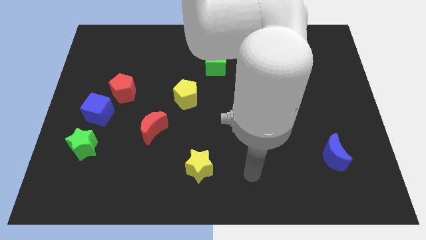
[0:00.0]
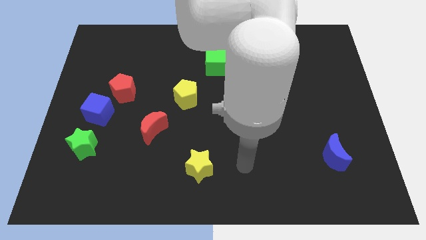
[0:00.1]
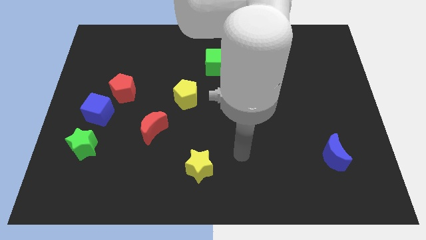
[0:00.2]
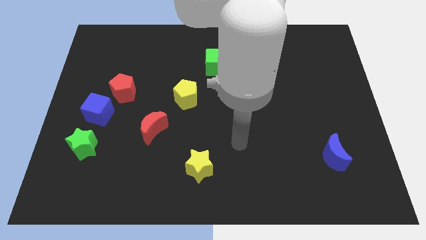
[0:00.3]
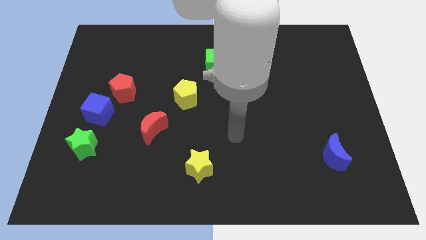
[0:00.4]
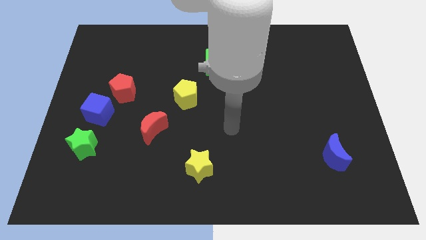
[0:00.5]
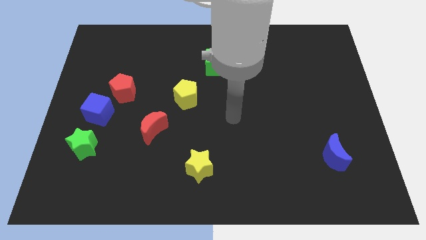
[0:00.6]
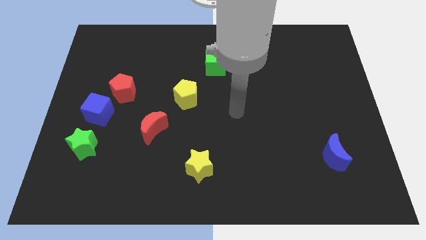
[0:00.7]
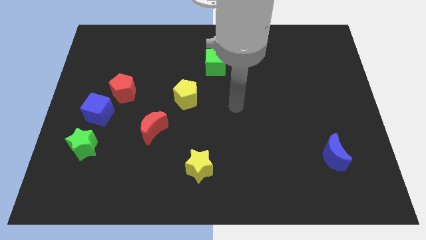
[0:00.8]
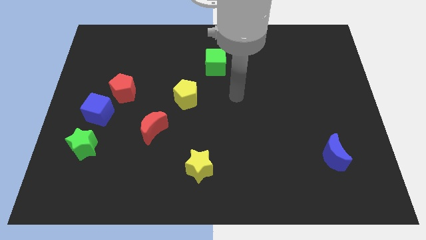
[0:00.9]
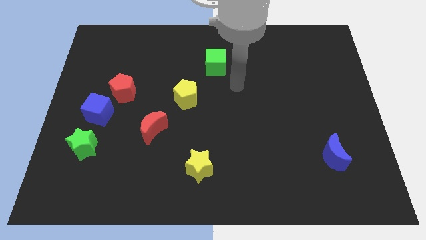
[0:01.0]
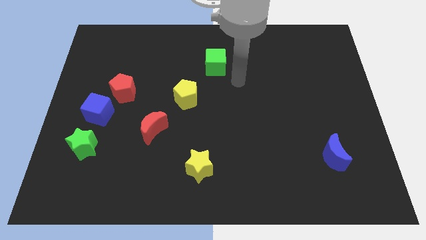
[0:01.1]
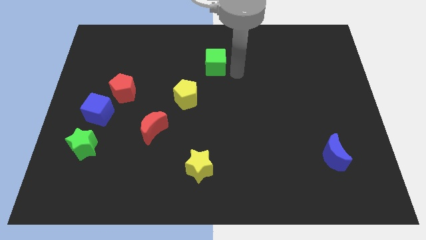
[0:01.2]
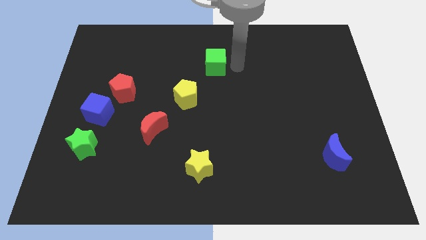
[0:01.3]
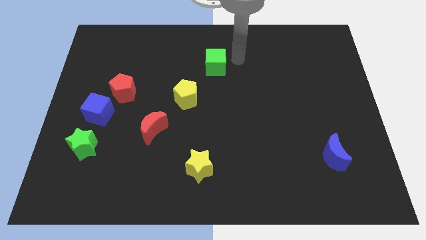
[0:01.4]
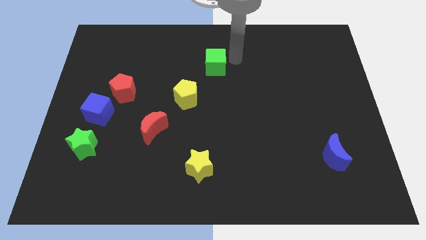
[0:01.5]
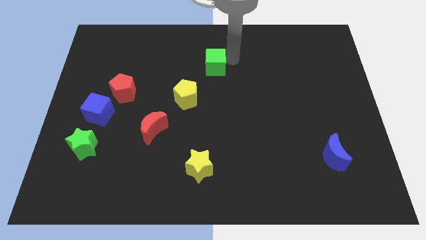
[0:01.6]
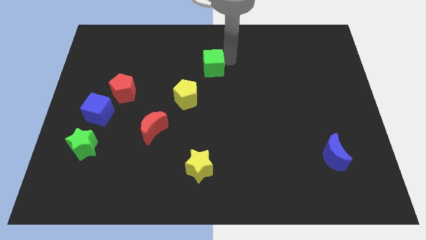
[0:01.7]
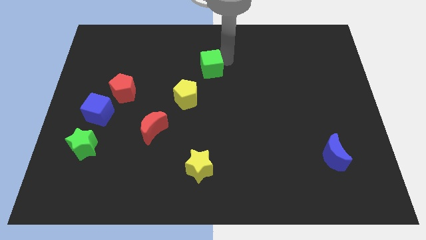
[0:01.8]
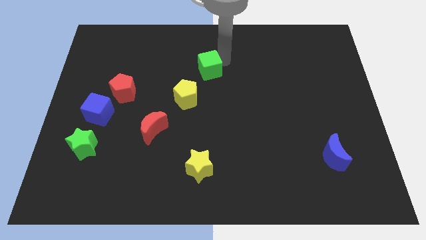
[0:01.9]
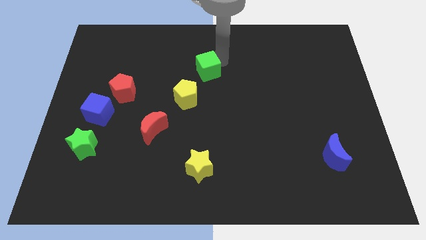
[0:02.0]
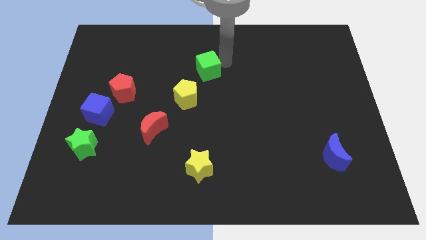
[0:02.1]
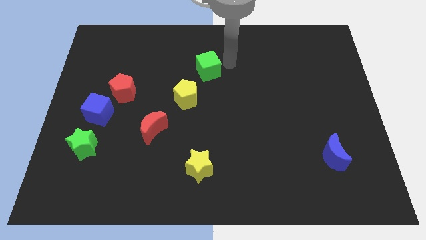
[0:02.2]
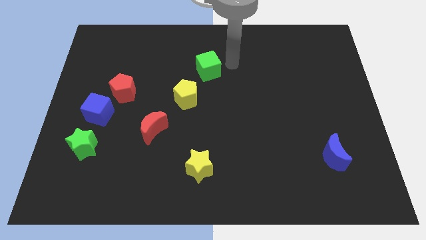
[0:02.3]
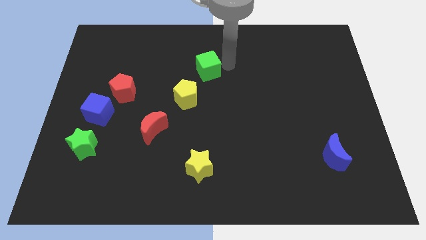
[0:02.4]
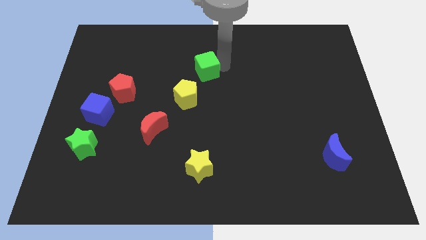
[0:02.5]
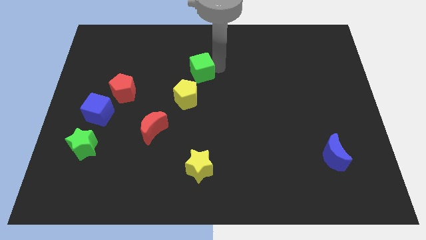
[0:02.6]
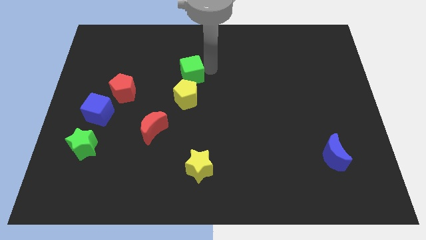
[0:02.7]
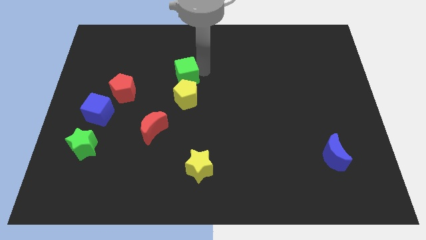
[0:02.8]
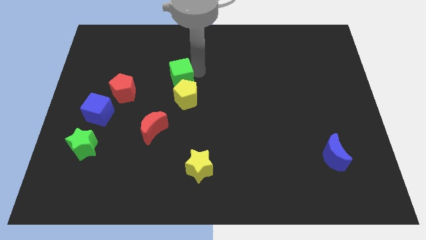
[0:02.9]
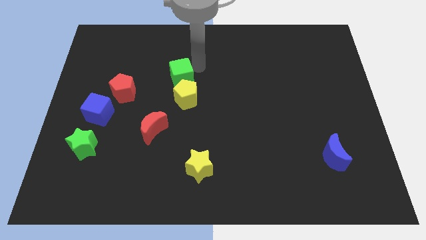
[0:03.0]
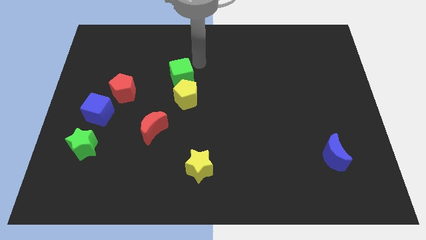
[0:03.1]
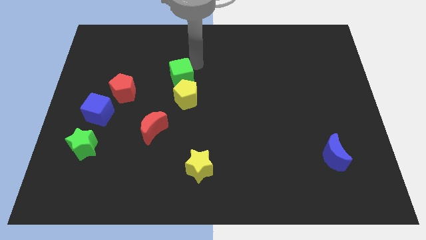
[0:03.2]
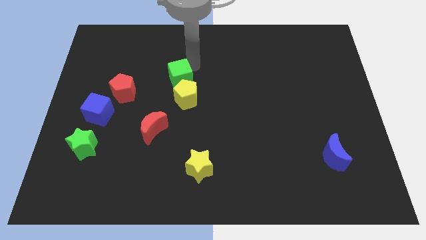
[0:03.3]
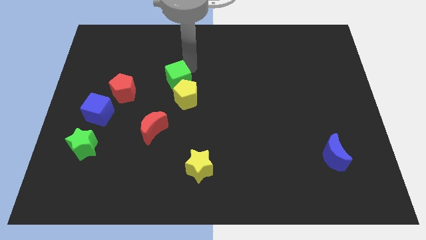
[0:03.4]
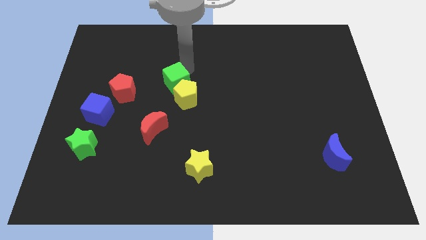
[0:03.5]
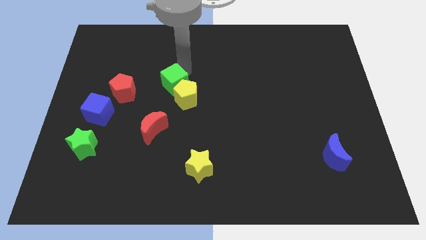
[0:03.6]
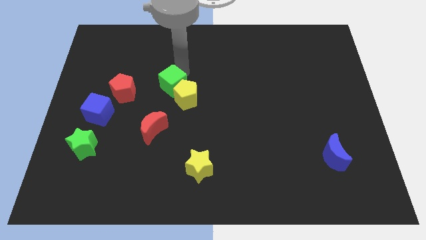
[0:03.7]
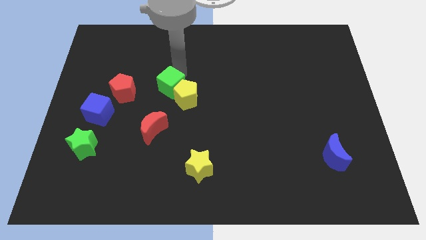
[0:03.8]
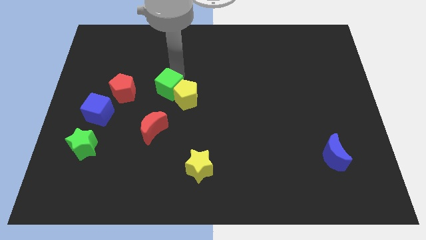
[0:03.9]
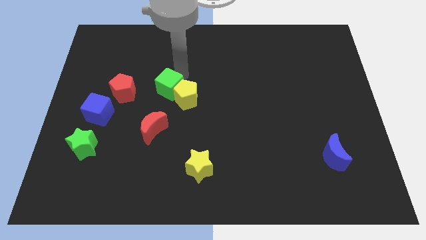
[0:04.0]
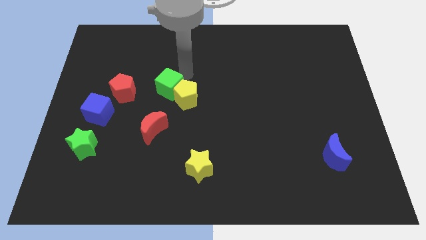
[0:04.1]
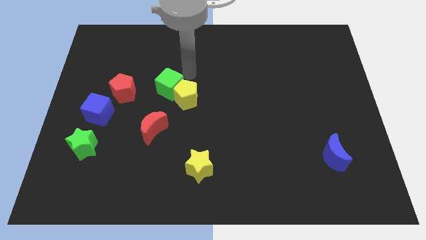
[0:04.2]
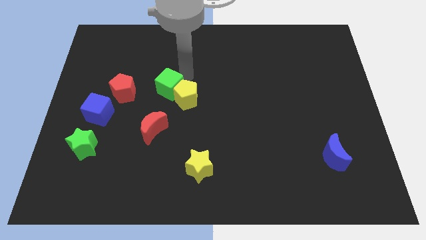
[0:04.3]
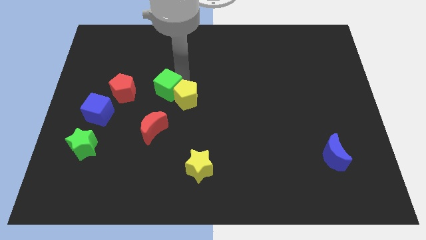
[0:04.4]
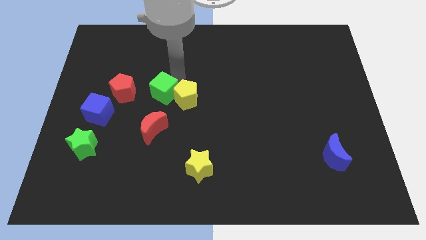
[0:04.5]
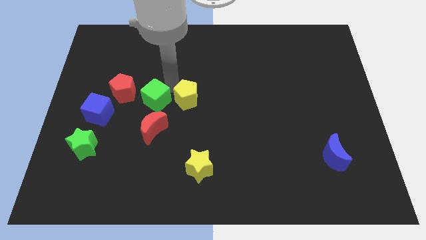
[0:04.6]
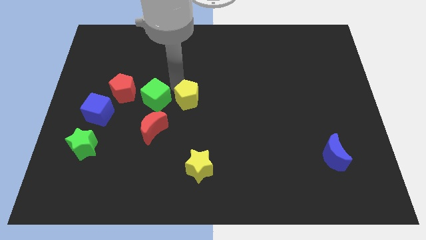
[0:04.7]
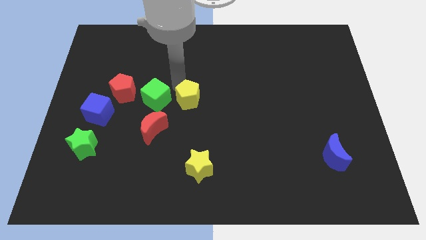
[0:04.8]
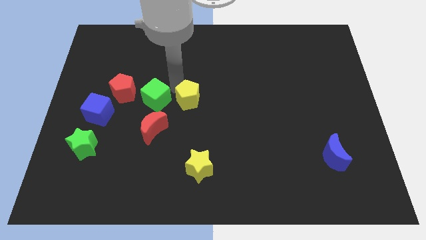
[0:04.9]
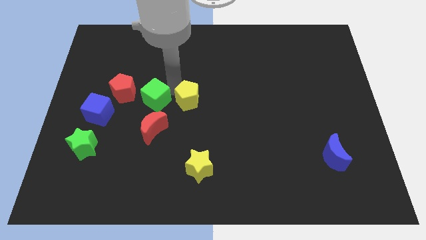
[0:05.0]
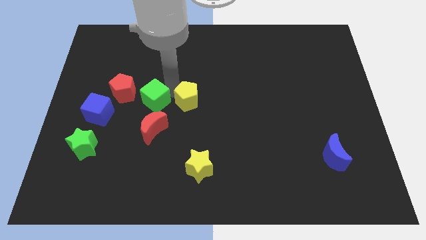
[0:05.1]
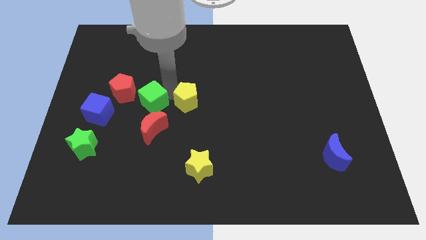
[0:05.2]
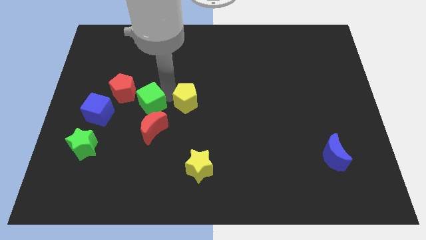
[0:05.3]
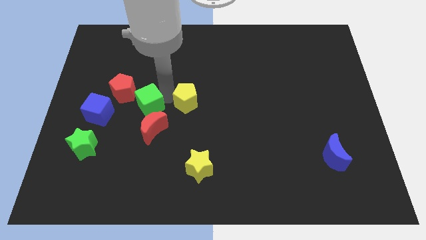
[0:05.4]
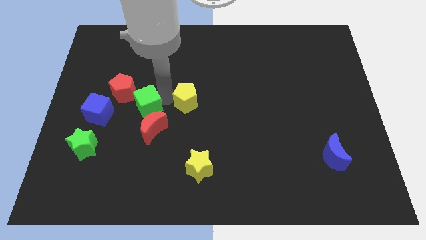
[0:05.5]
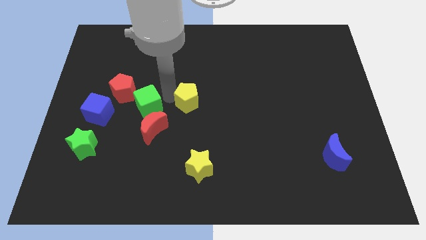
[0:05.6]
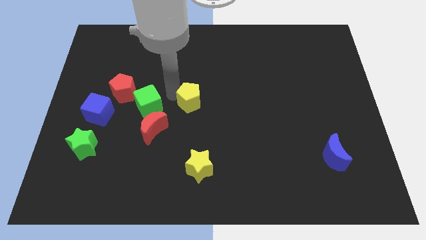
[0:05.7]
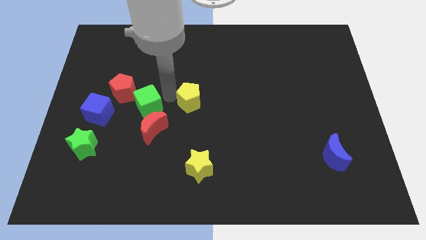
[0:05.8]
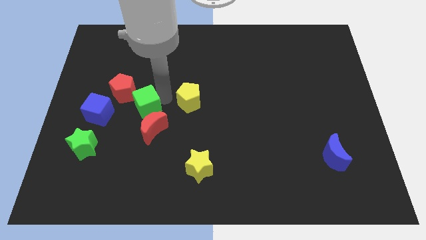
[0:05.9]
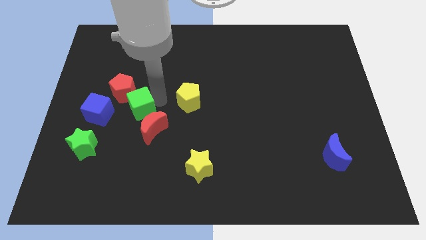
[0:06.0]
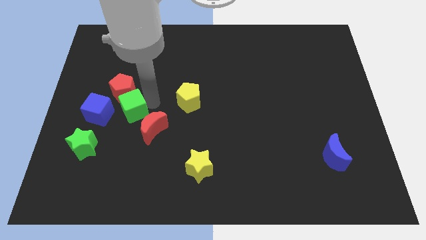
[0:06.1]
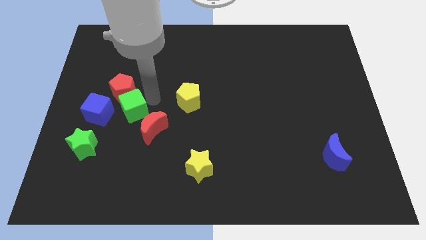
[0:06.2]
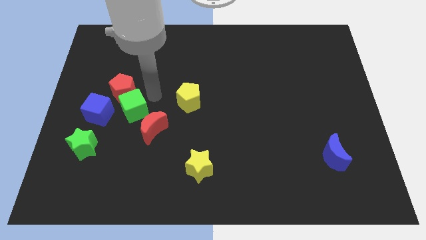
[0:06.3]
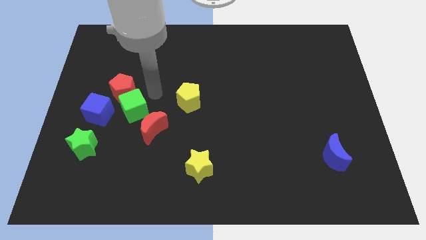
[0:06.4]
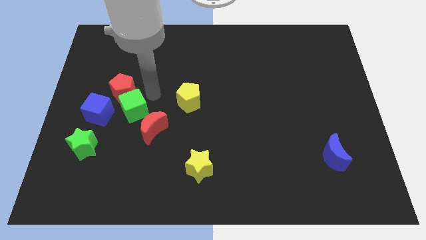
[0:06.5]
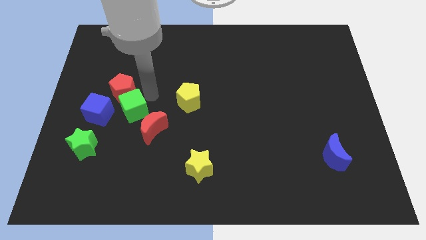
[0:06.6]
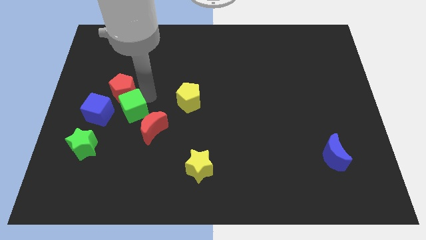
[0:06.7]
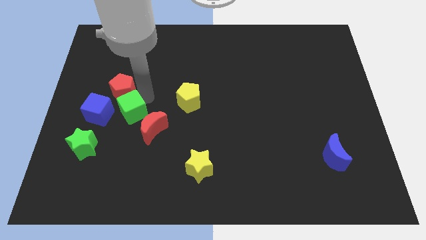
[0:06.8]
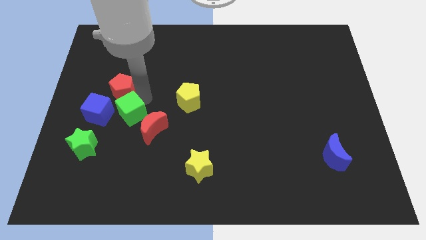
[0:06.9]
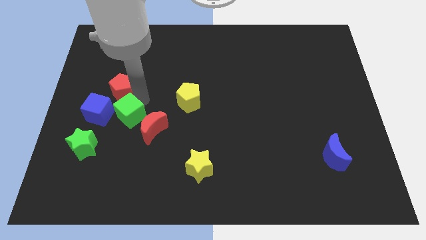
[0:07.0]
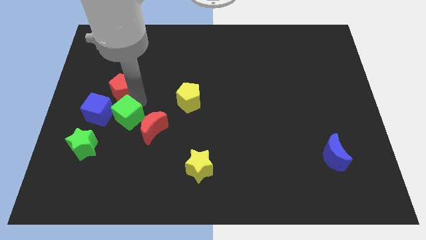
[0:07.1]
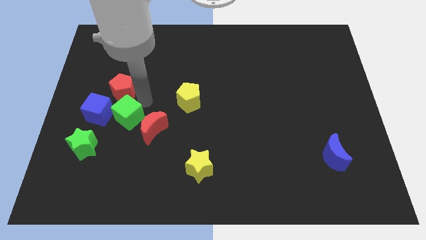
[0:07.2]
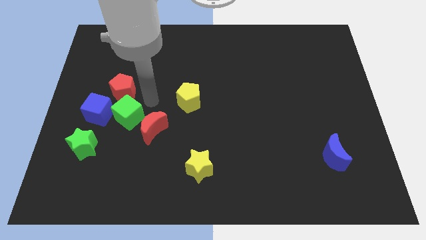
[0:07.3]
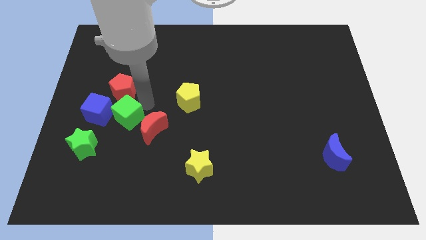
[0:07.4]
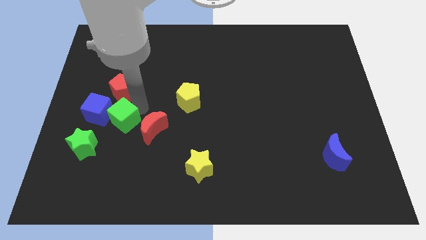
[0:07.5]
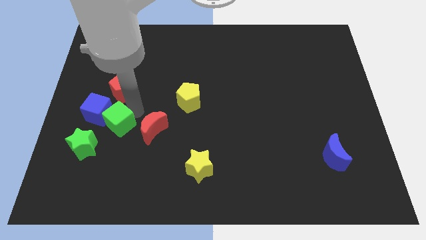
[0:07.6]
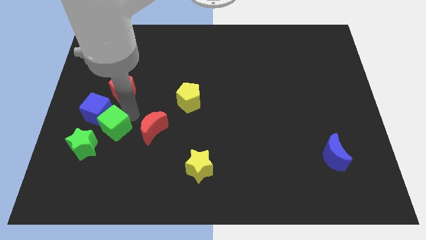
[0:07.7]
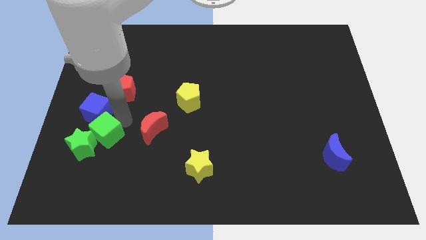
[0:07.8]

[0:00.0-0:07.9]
push the green cube towards the green star
